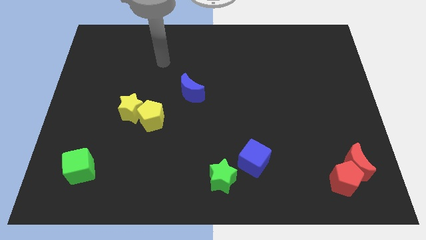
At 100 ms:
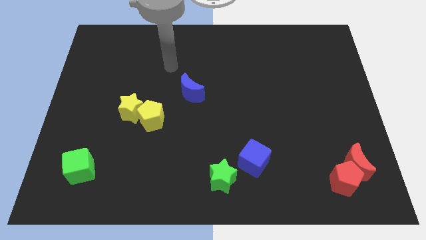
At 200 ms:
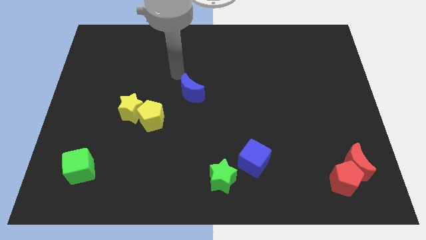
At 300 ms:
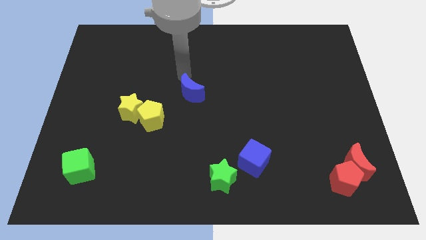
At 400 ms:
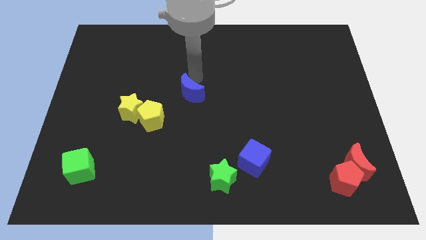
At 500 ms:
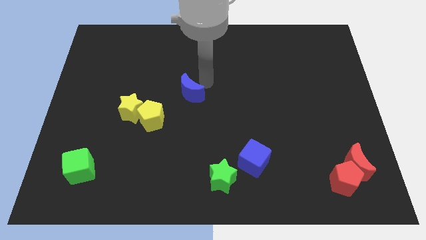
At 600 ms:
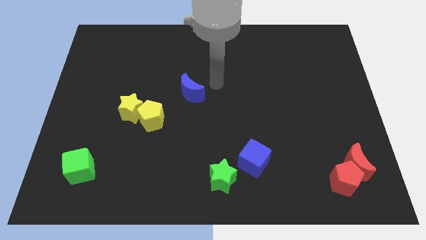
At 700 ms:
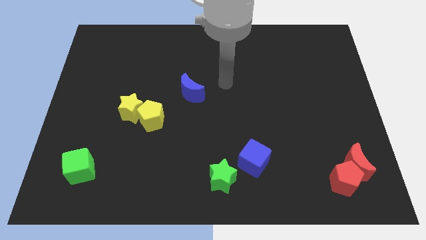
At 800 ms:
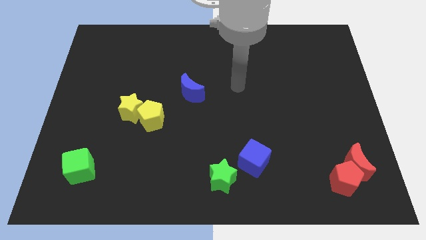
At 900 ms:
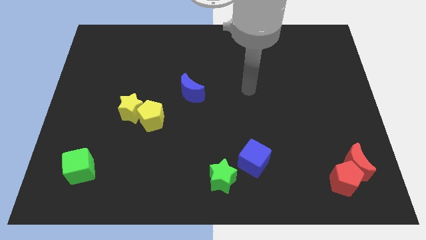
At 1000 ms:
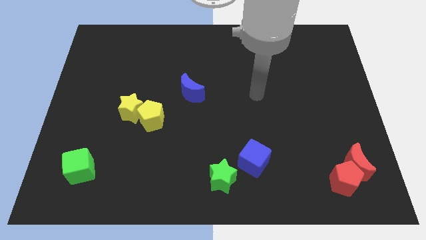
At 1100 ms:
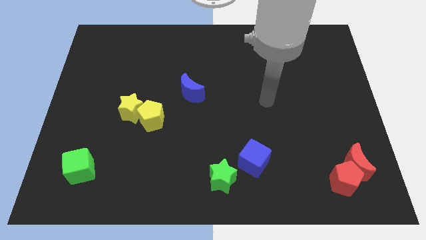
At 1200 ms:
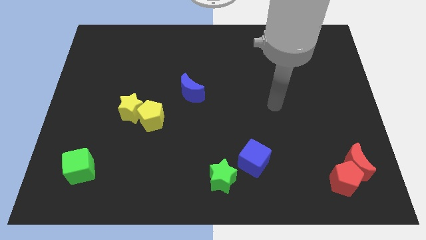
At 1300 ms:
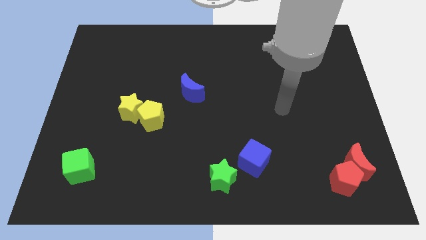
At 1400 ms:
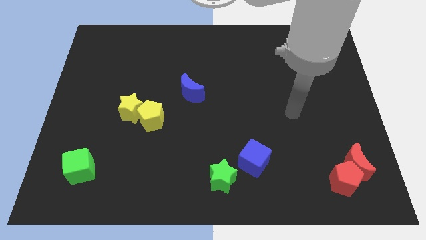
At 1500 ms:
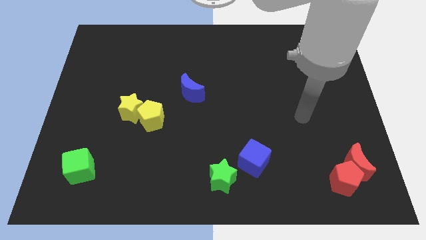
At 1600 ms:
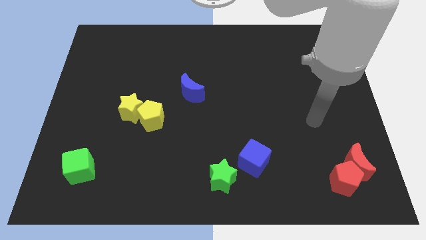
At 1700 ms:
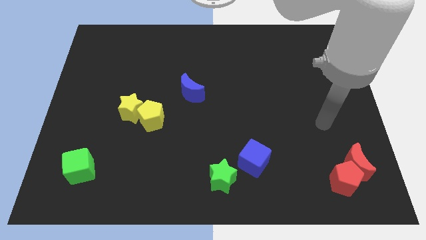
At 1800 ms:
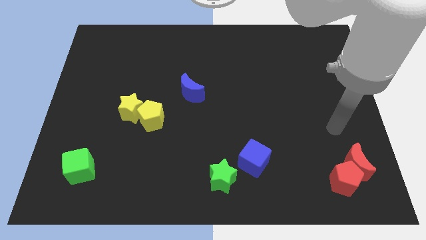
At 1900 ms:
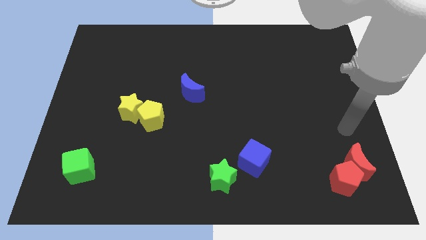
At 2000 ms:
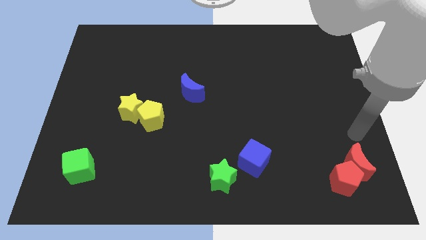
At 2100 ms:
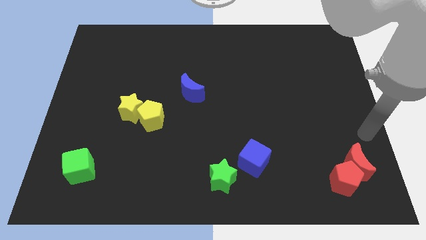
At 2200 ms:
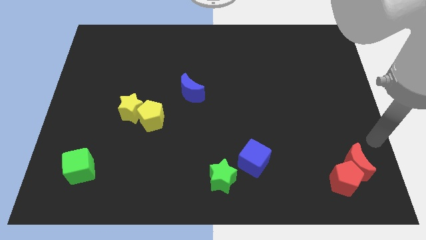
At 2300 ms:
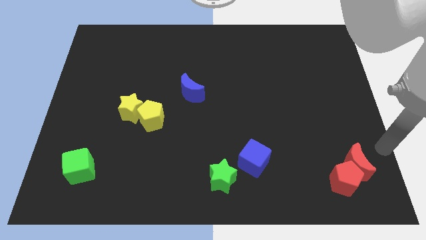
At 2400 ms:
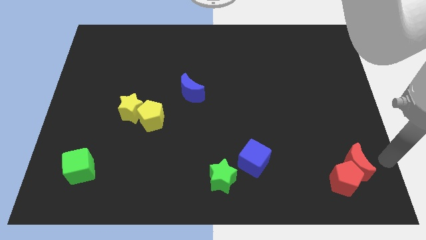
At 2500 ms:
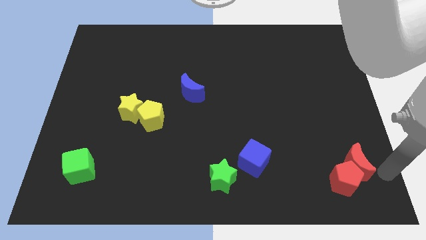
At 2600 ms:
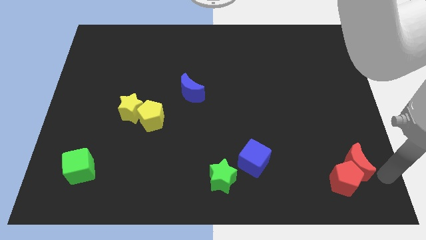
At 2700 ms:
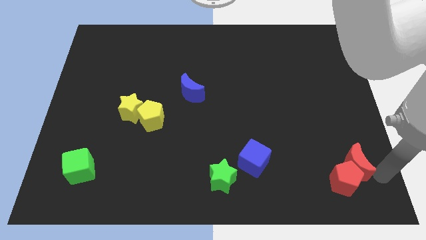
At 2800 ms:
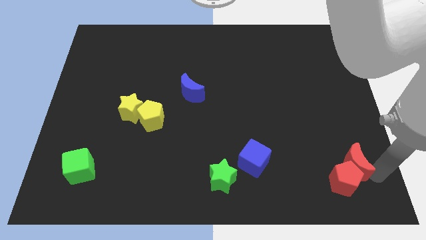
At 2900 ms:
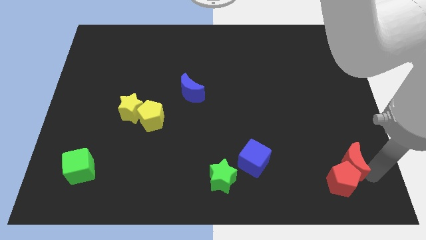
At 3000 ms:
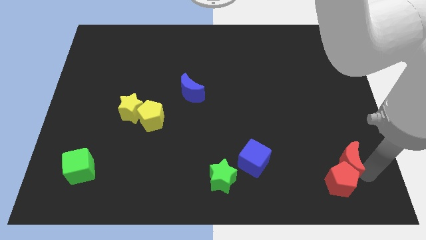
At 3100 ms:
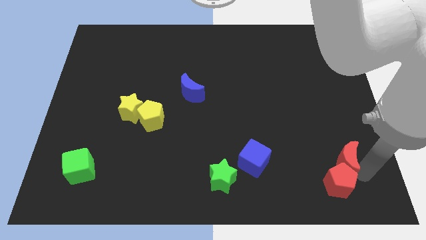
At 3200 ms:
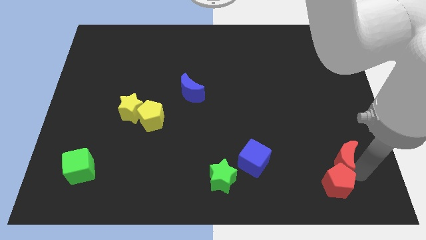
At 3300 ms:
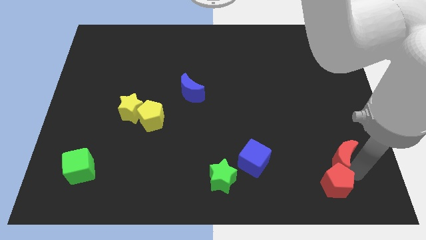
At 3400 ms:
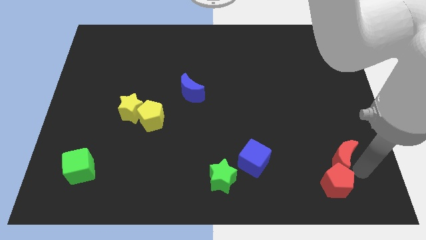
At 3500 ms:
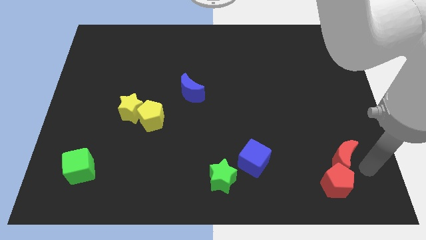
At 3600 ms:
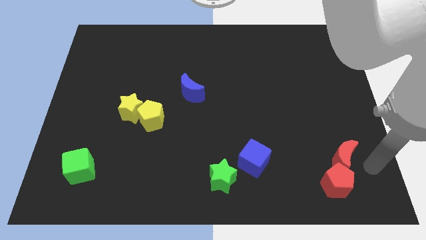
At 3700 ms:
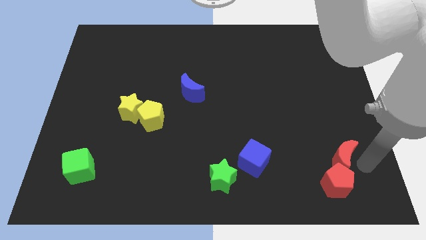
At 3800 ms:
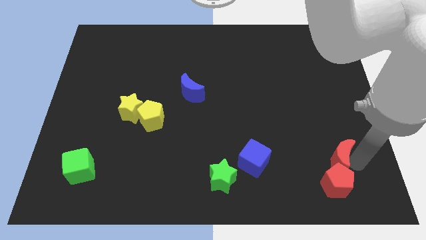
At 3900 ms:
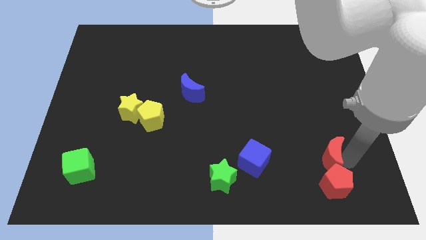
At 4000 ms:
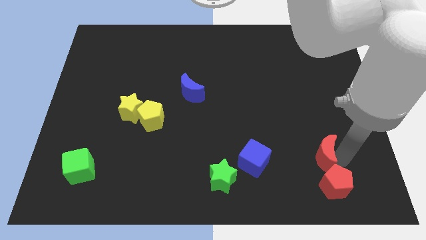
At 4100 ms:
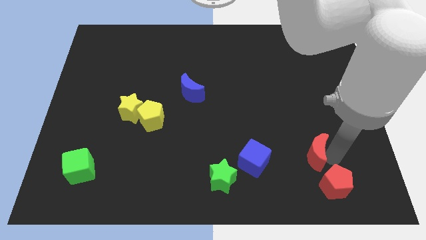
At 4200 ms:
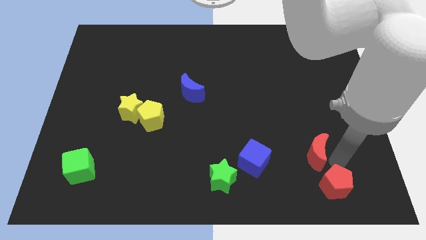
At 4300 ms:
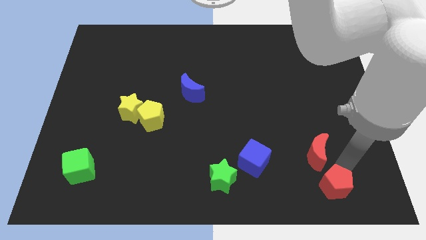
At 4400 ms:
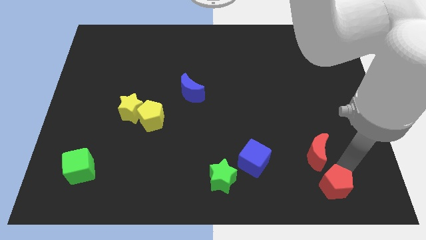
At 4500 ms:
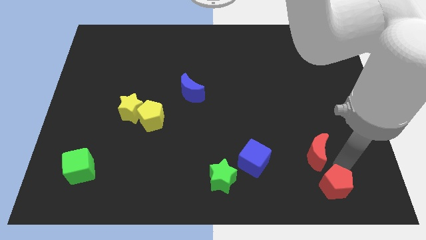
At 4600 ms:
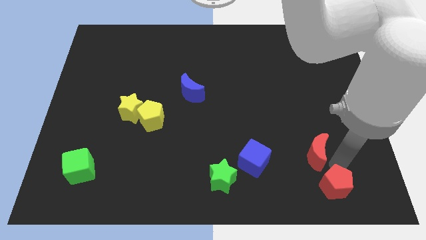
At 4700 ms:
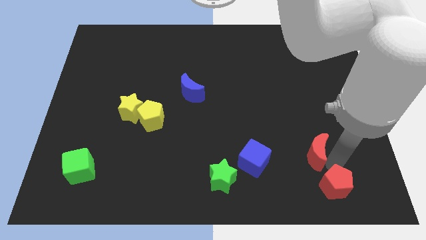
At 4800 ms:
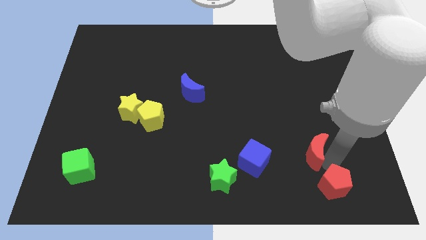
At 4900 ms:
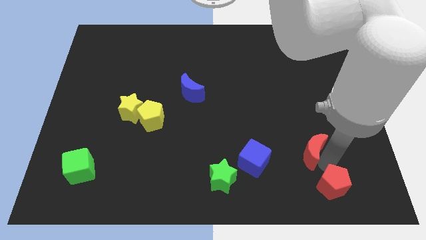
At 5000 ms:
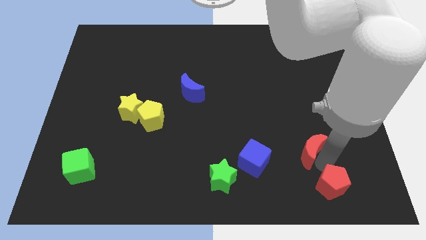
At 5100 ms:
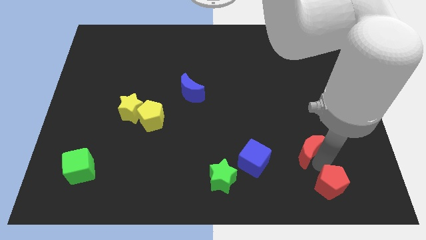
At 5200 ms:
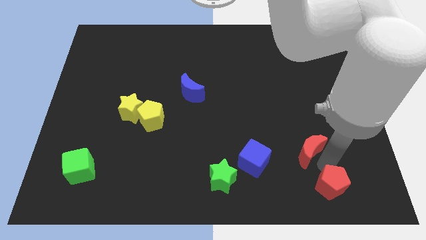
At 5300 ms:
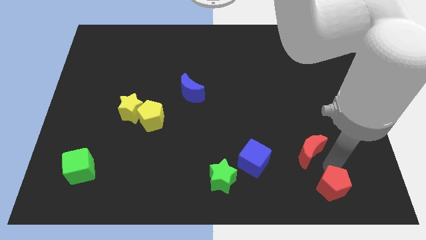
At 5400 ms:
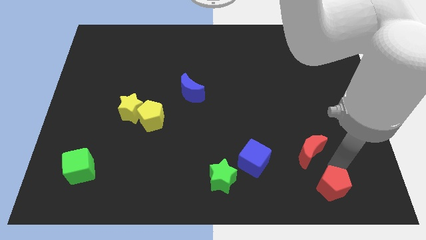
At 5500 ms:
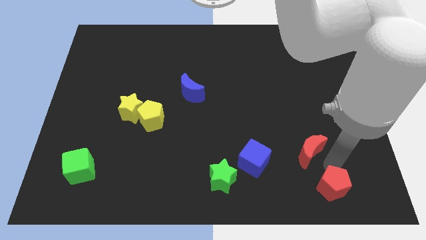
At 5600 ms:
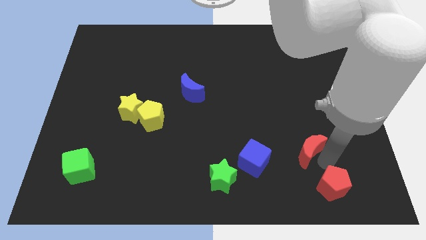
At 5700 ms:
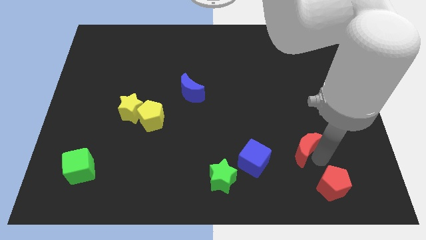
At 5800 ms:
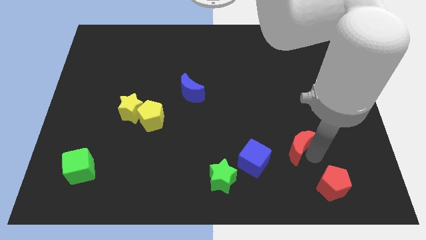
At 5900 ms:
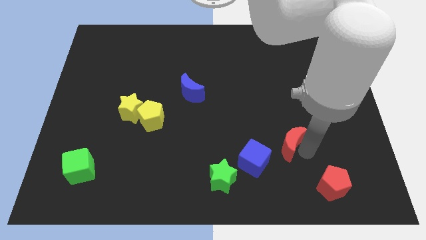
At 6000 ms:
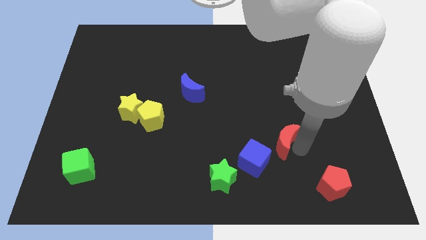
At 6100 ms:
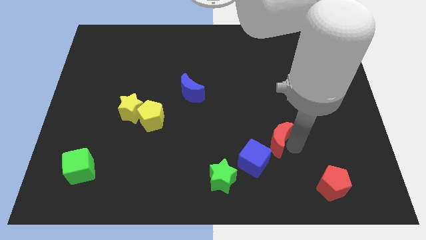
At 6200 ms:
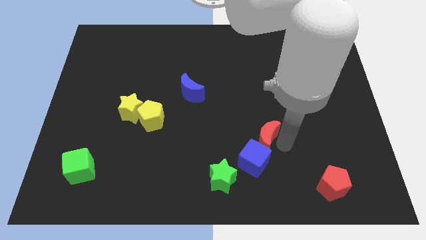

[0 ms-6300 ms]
move the red moon to the top of the blue cube

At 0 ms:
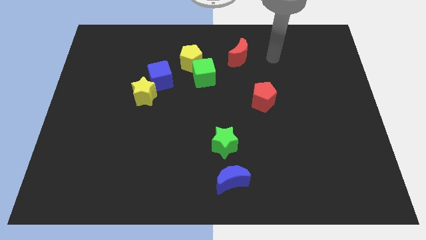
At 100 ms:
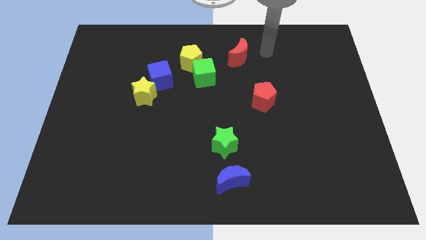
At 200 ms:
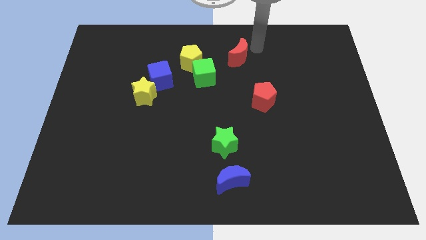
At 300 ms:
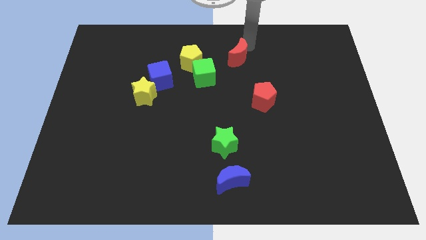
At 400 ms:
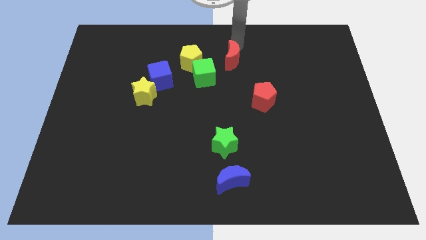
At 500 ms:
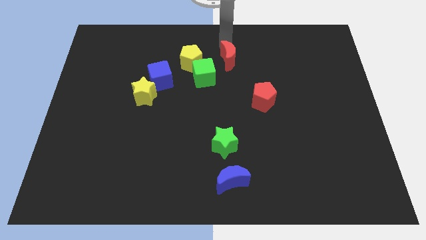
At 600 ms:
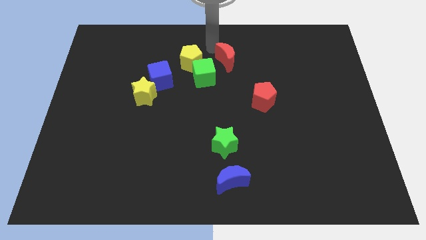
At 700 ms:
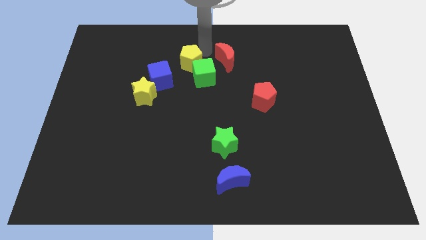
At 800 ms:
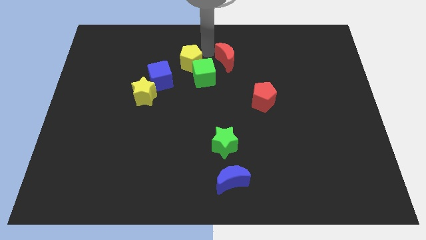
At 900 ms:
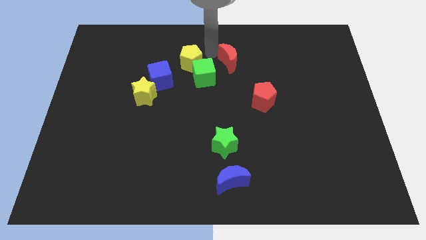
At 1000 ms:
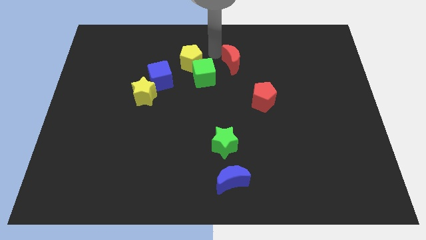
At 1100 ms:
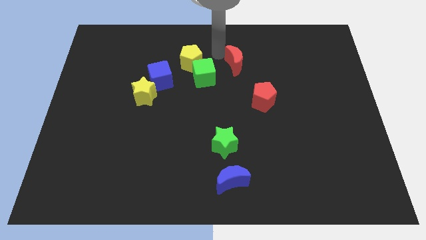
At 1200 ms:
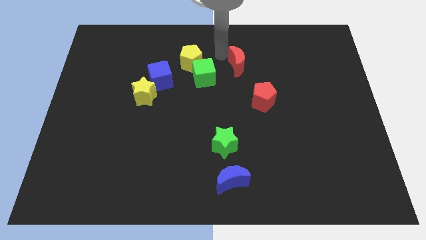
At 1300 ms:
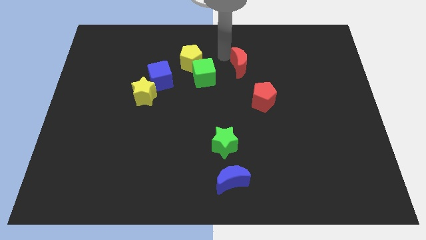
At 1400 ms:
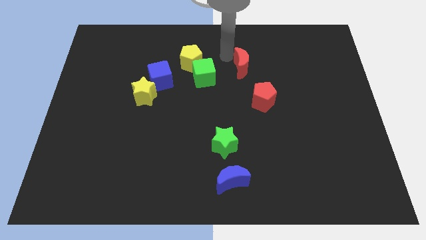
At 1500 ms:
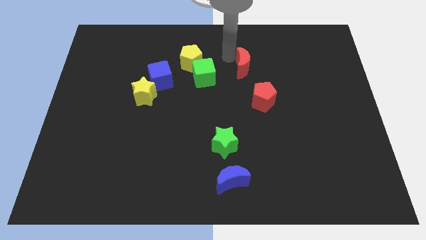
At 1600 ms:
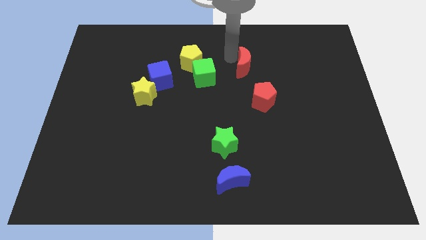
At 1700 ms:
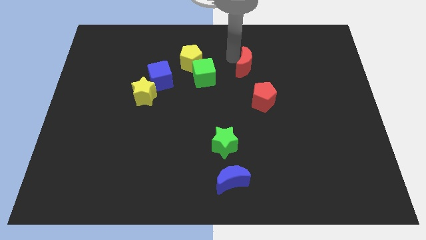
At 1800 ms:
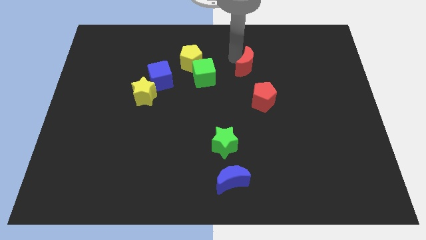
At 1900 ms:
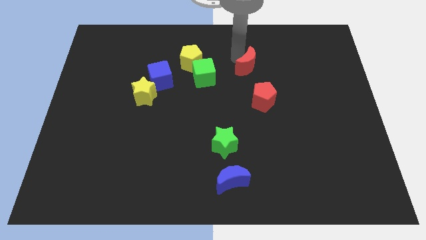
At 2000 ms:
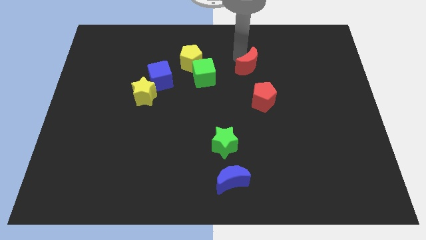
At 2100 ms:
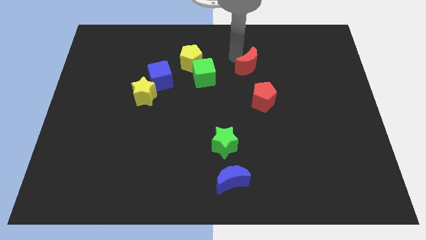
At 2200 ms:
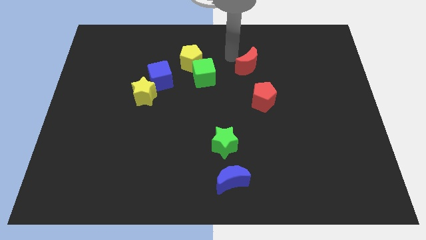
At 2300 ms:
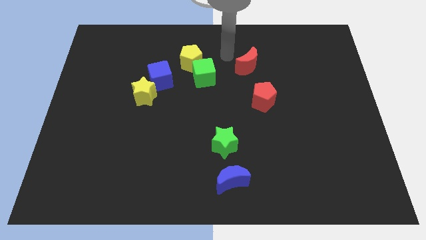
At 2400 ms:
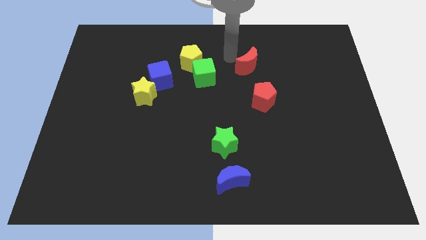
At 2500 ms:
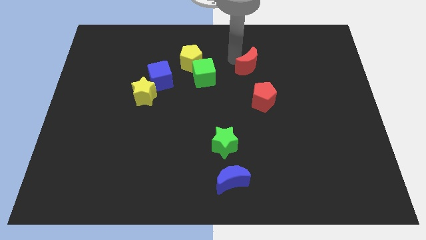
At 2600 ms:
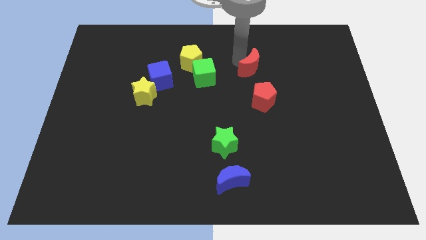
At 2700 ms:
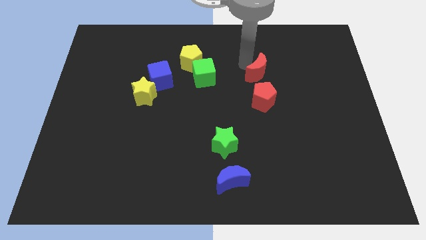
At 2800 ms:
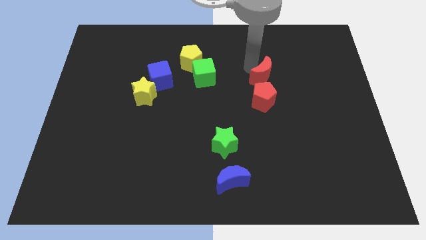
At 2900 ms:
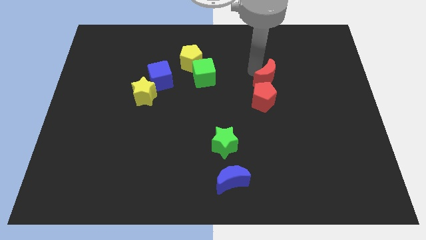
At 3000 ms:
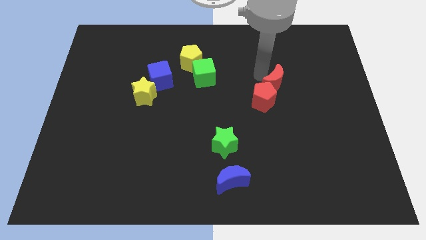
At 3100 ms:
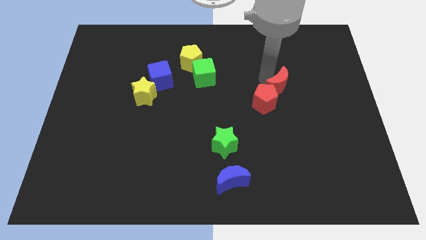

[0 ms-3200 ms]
slide the red moon just right of the red pentagon
